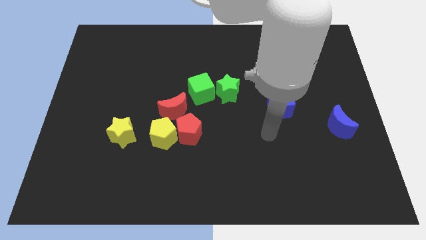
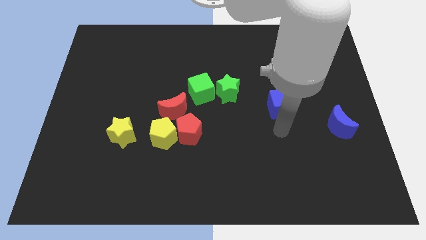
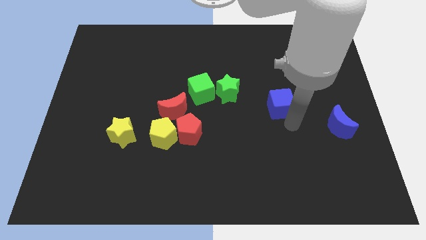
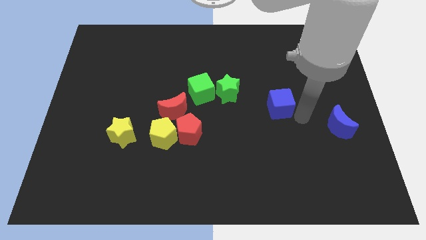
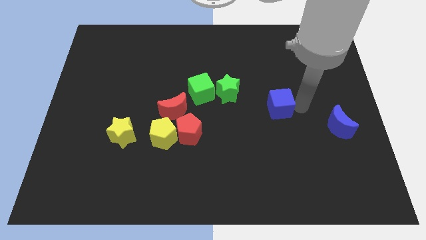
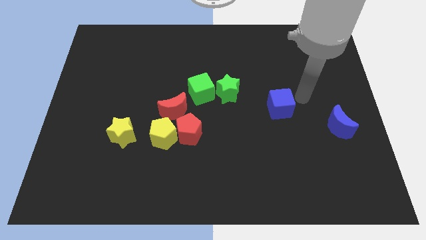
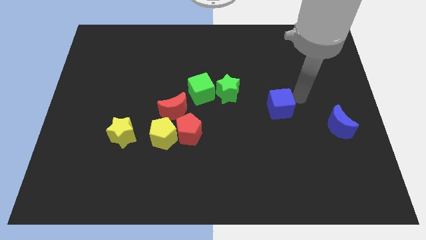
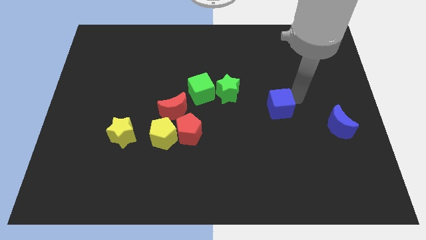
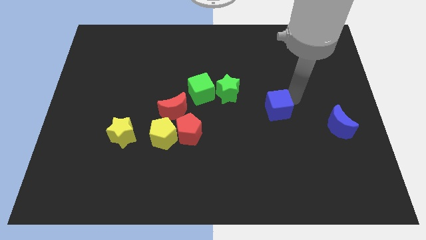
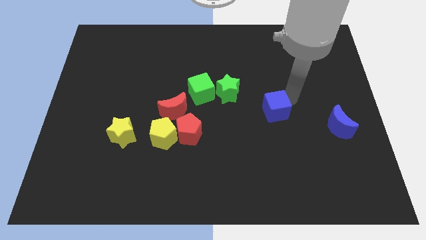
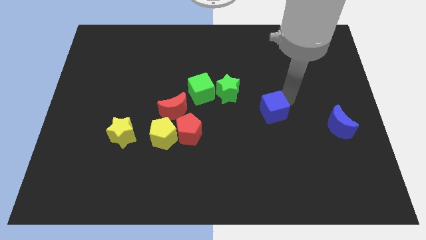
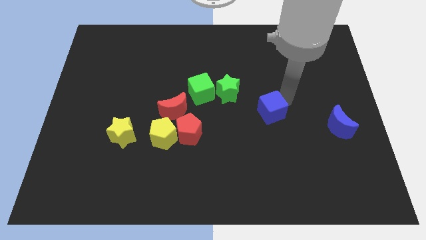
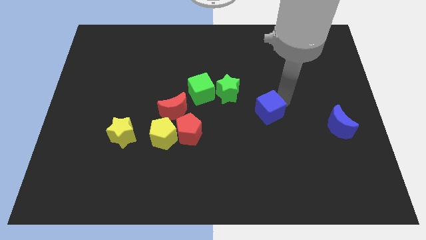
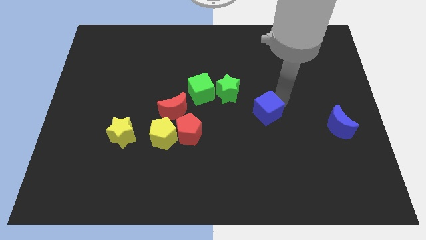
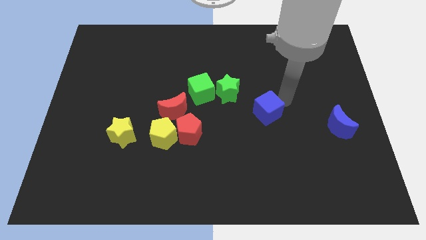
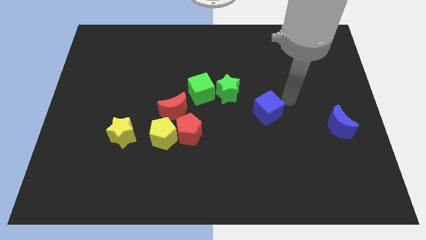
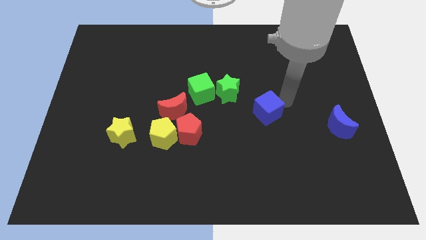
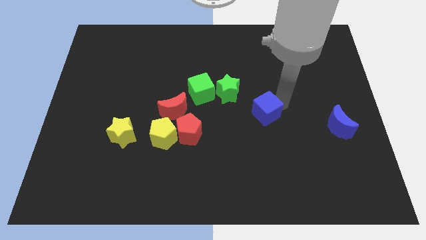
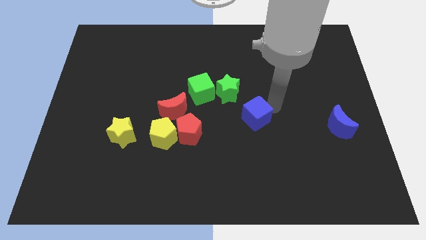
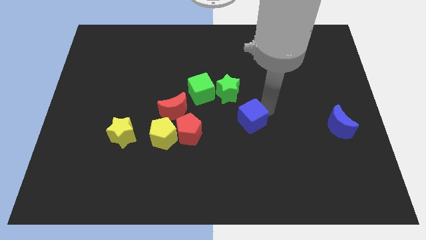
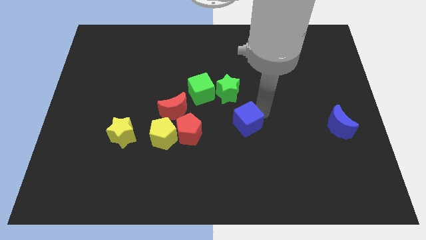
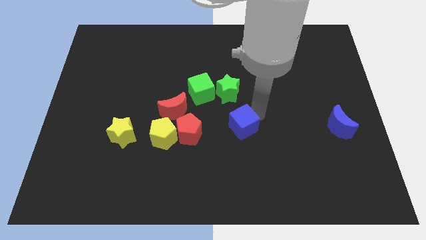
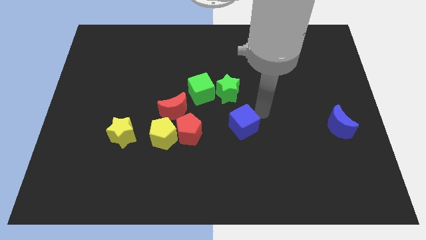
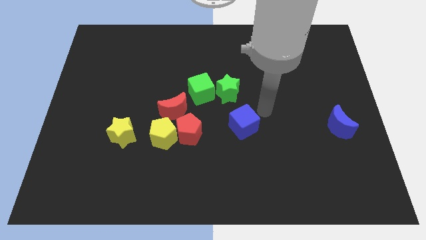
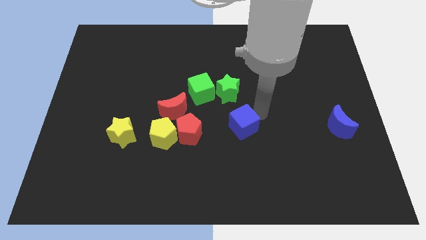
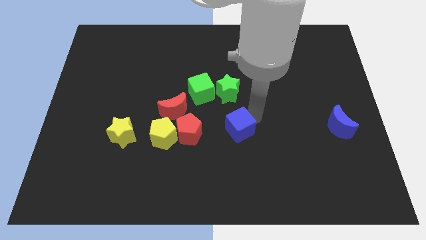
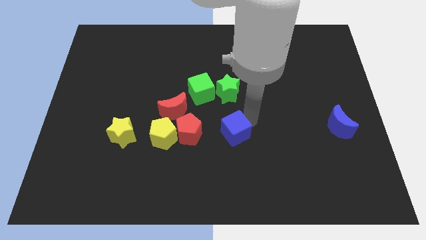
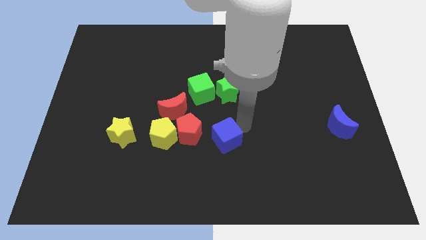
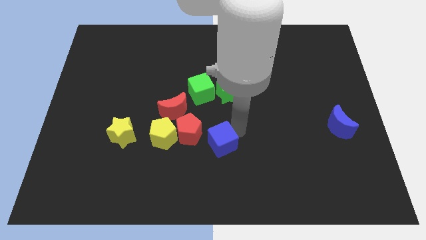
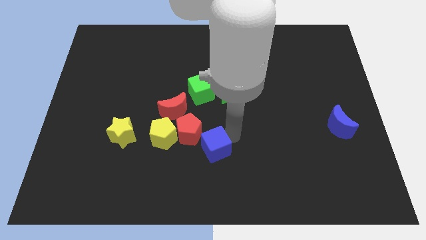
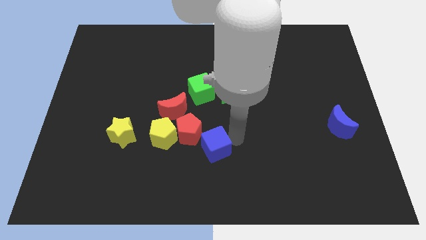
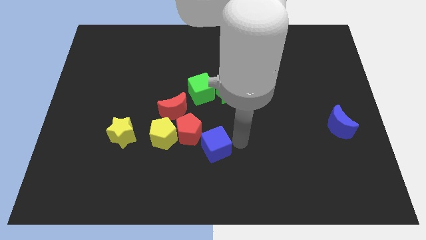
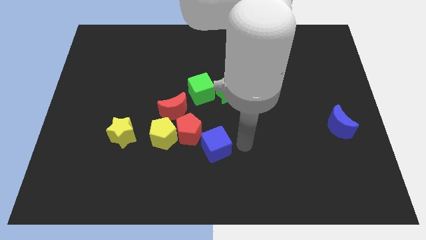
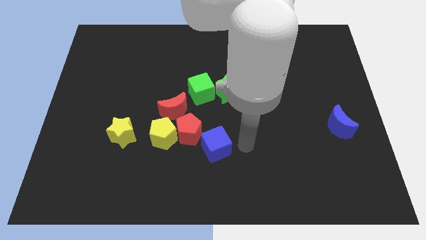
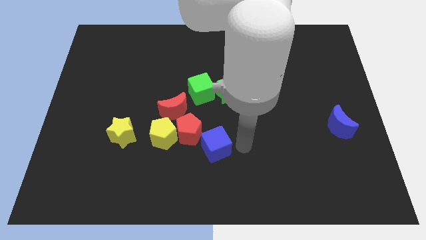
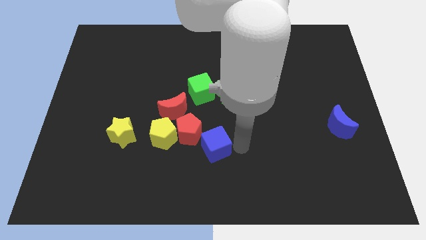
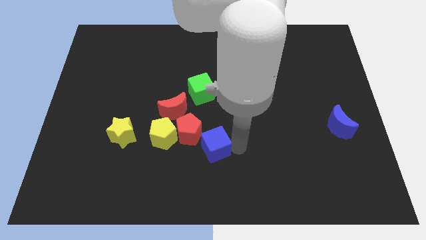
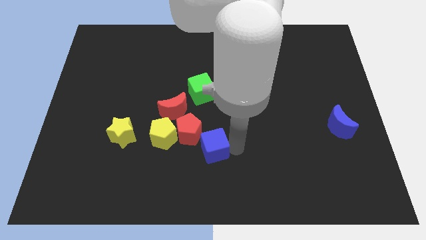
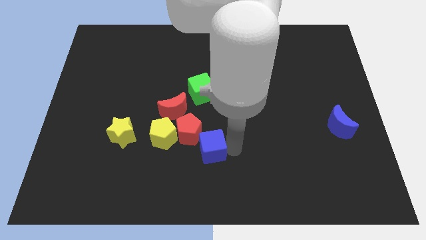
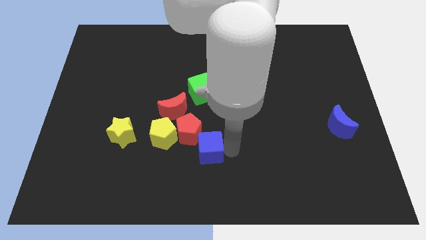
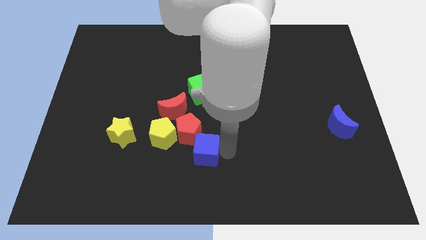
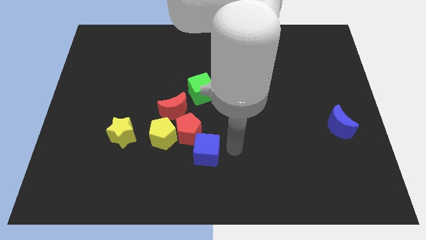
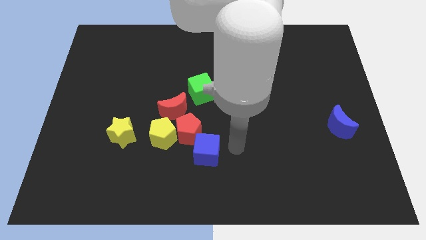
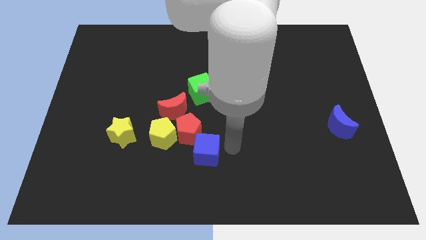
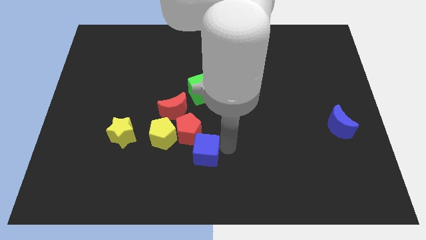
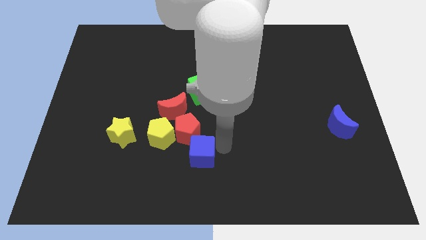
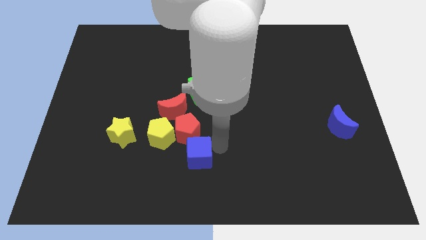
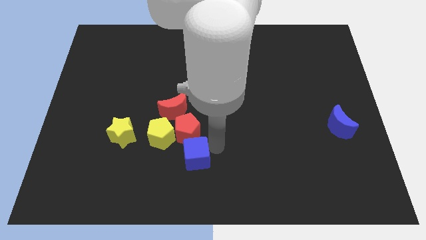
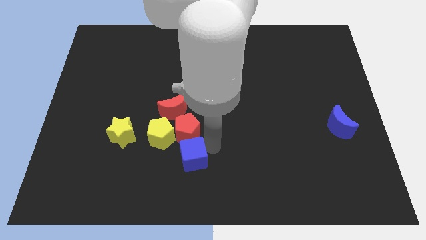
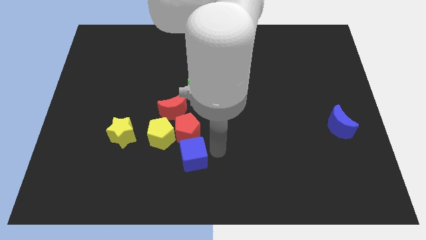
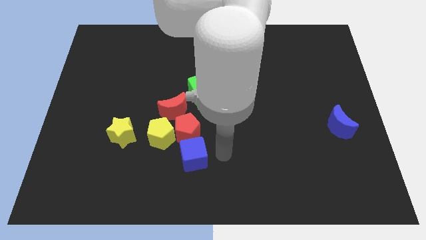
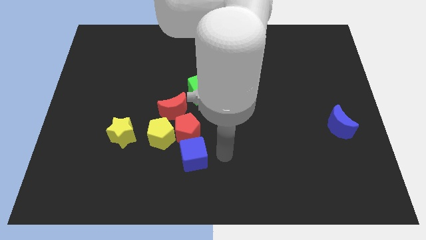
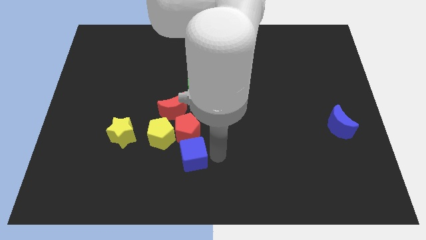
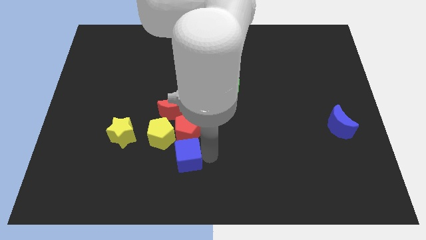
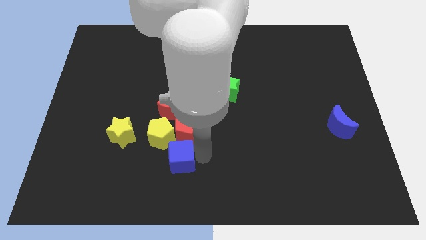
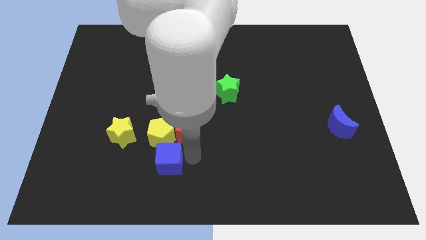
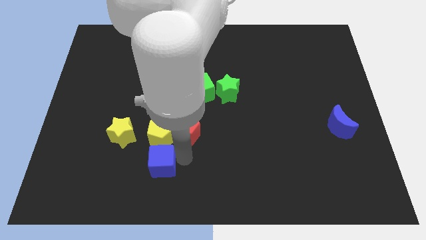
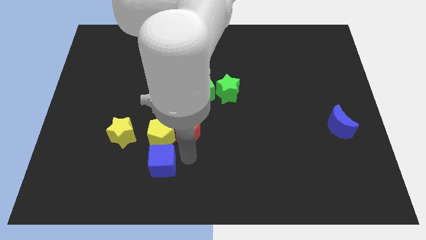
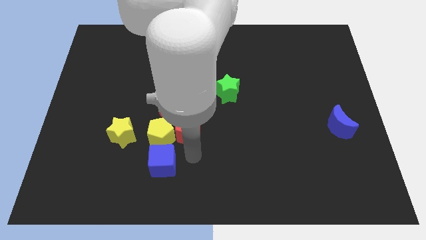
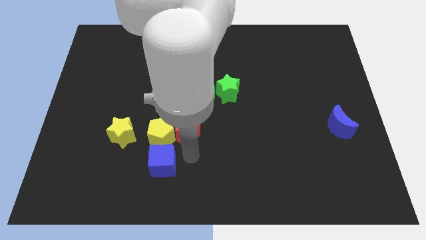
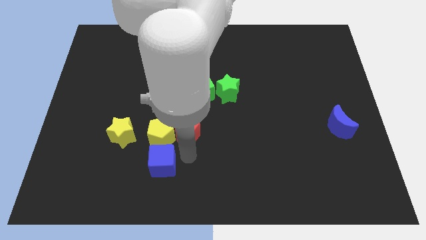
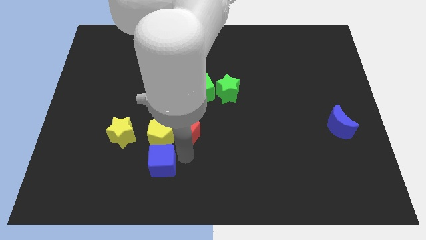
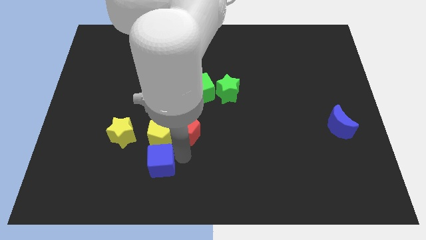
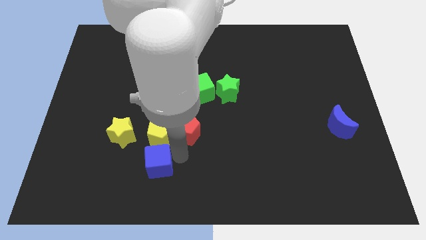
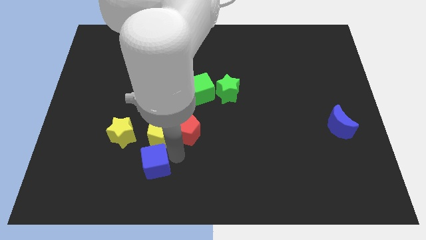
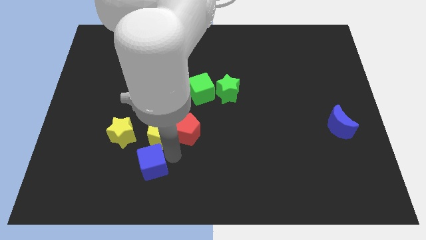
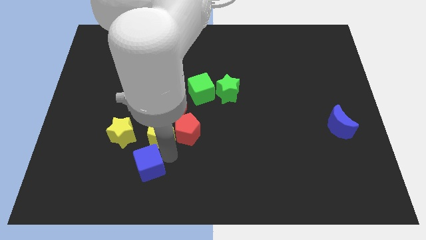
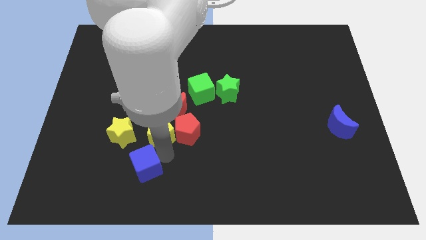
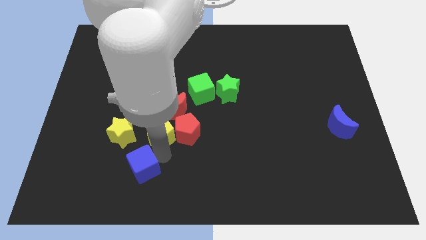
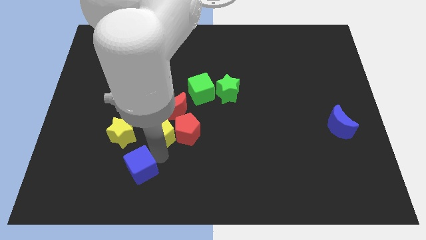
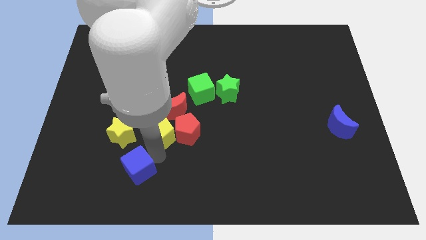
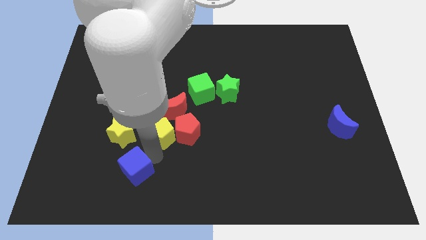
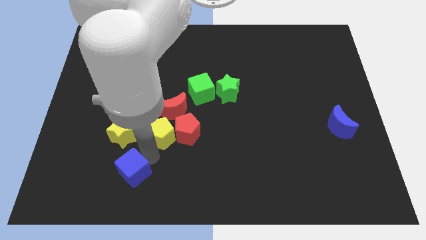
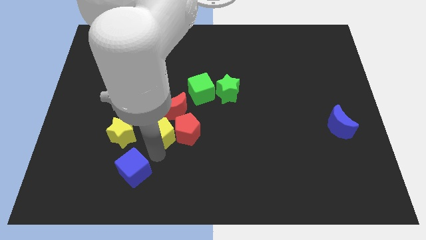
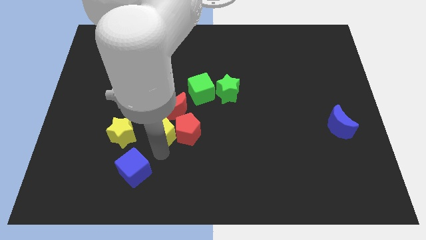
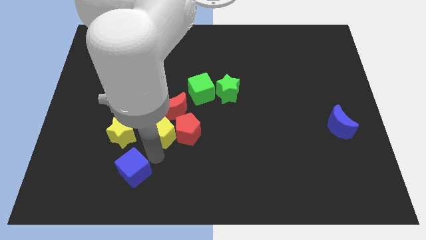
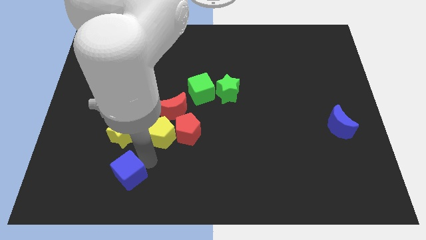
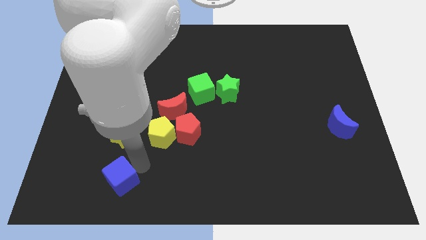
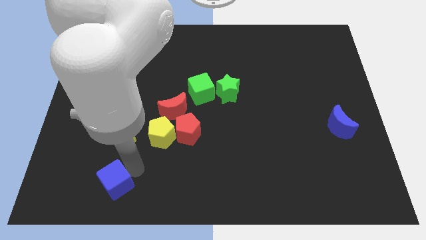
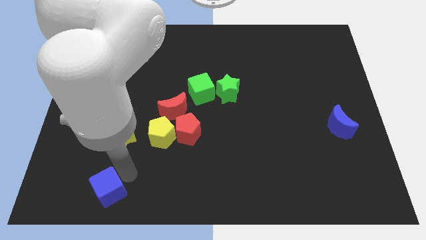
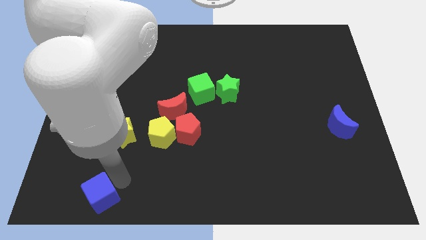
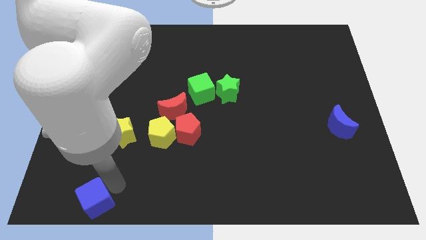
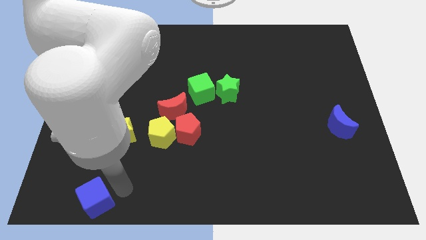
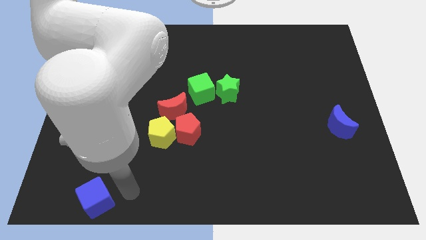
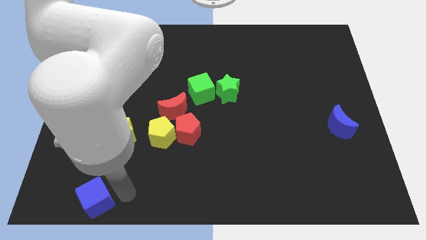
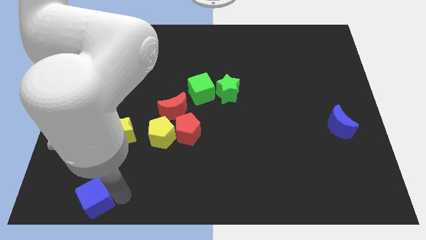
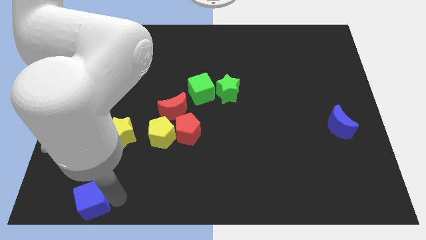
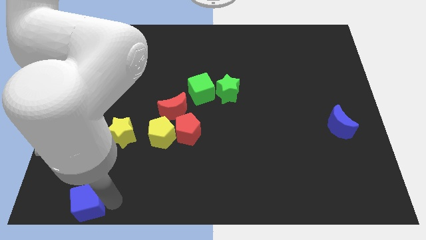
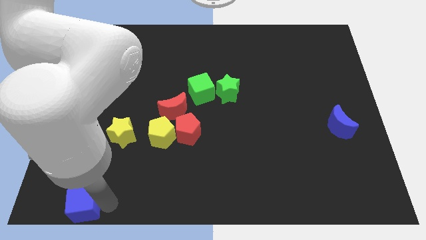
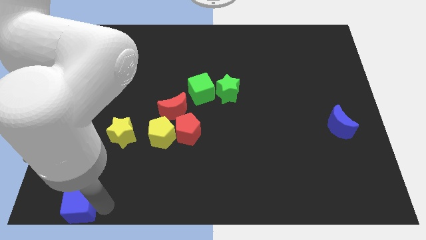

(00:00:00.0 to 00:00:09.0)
slide the blue cube to the bottom left
